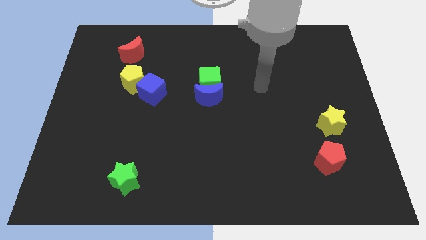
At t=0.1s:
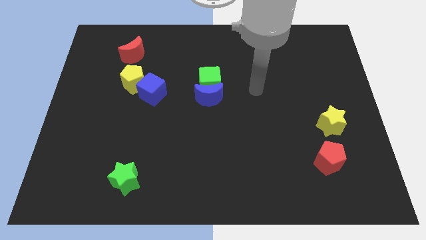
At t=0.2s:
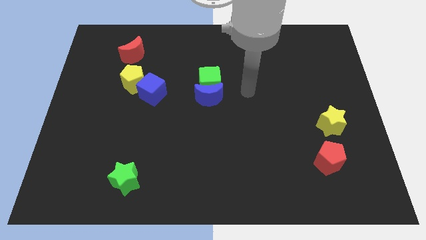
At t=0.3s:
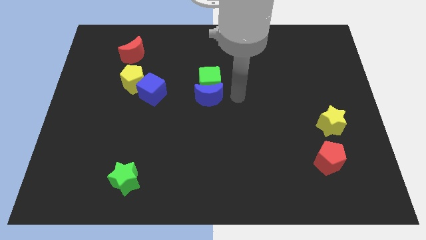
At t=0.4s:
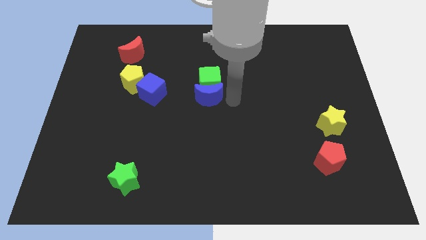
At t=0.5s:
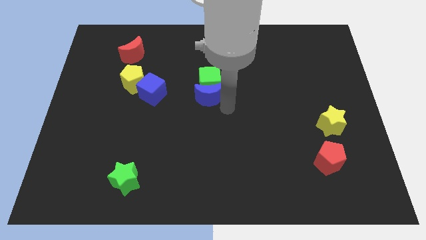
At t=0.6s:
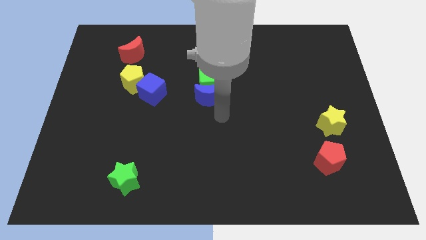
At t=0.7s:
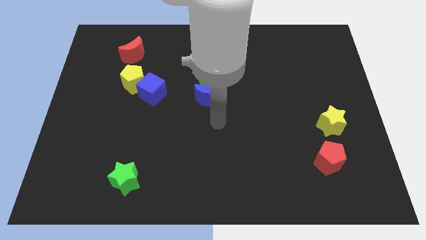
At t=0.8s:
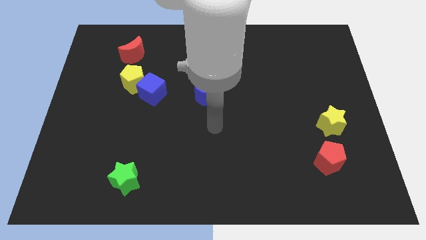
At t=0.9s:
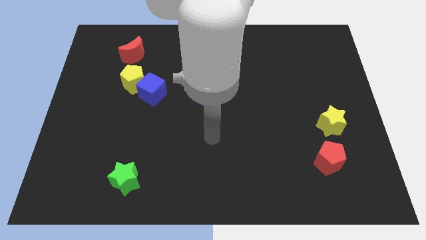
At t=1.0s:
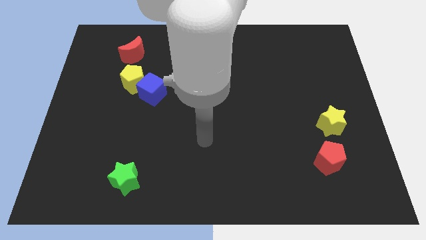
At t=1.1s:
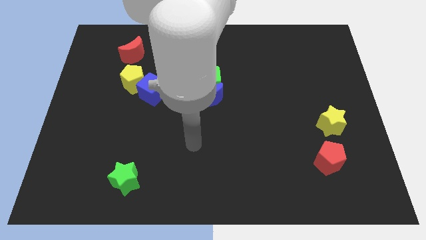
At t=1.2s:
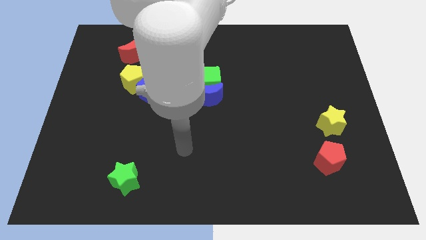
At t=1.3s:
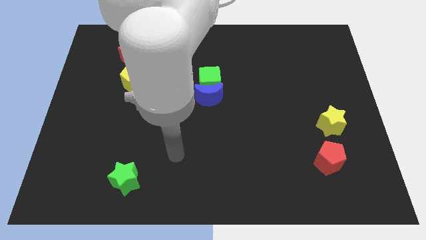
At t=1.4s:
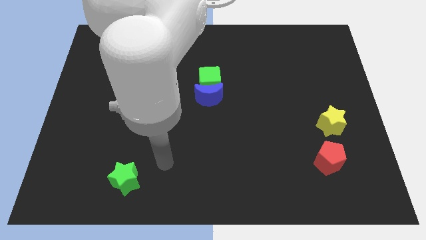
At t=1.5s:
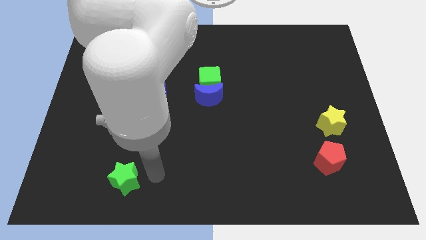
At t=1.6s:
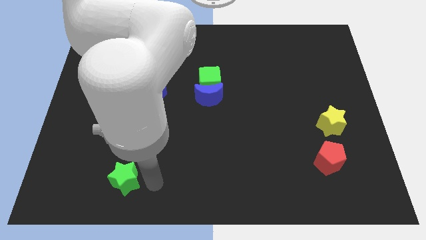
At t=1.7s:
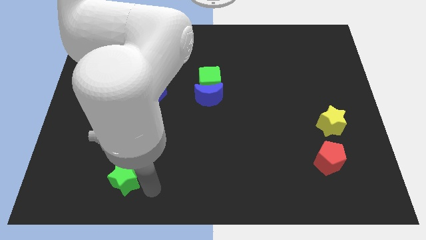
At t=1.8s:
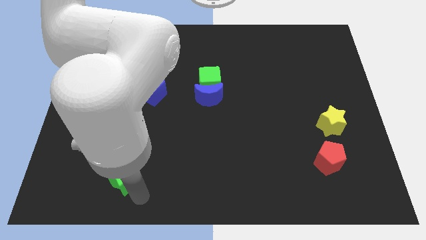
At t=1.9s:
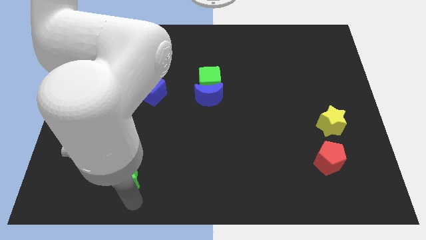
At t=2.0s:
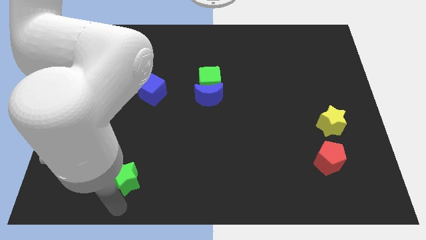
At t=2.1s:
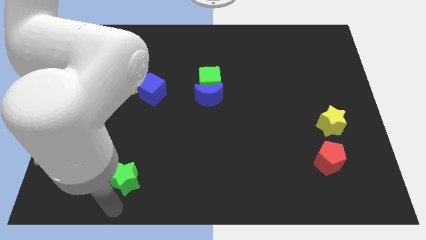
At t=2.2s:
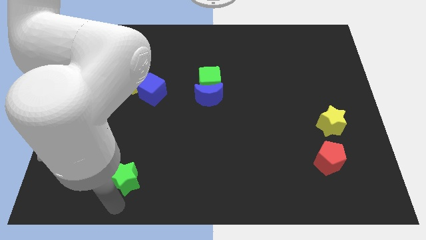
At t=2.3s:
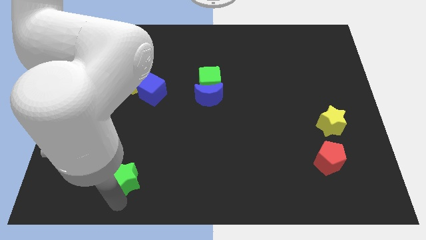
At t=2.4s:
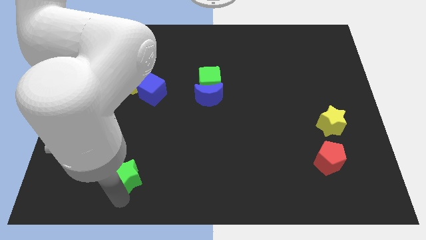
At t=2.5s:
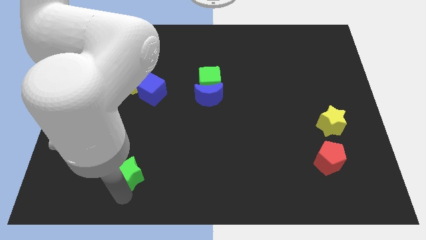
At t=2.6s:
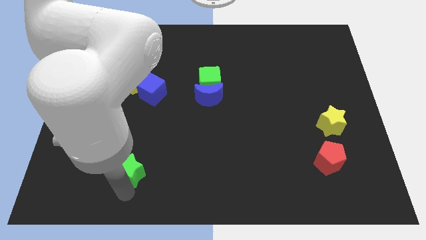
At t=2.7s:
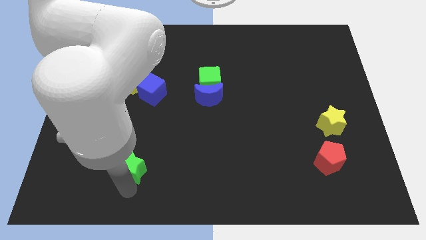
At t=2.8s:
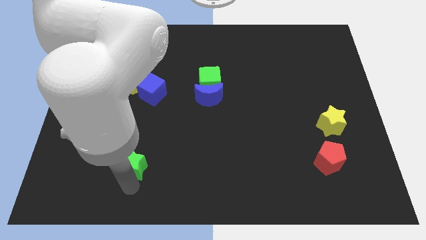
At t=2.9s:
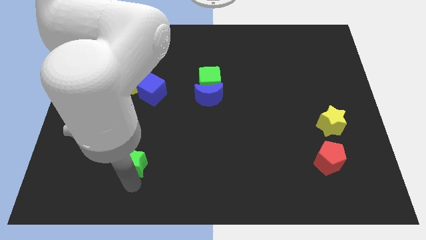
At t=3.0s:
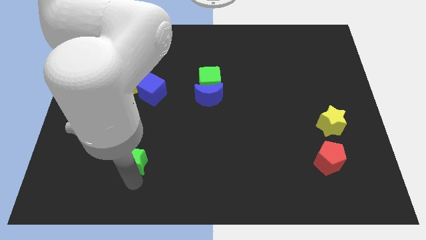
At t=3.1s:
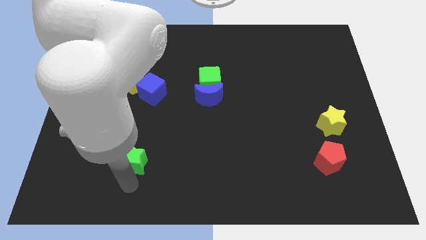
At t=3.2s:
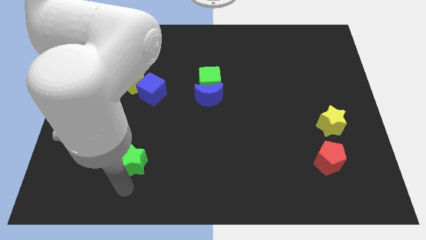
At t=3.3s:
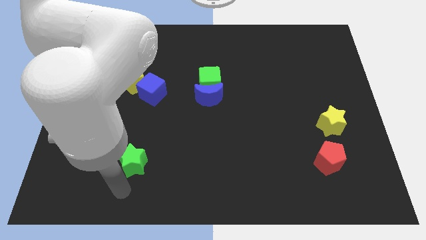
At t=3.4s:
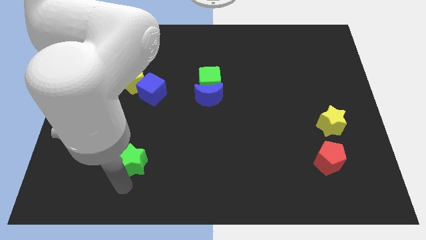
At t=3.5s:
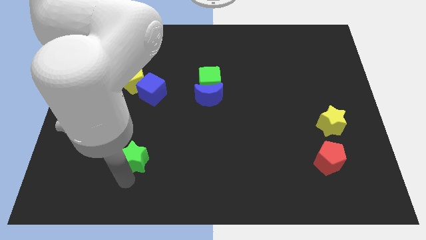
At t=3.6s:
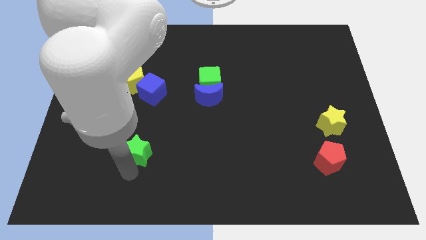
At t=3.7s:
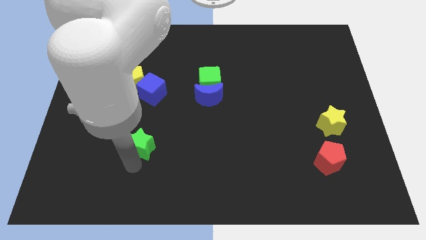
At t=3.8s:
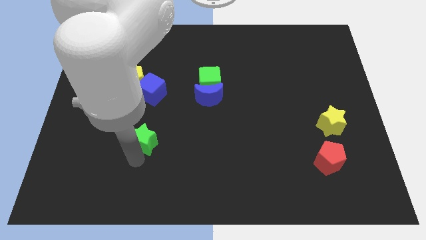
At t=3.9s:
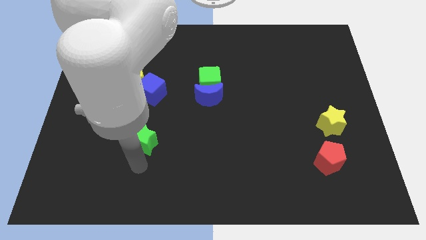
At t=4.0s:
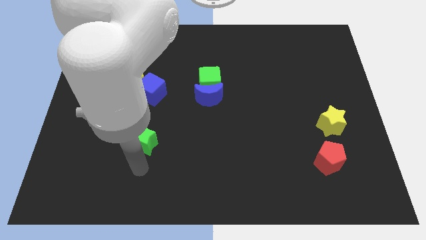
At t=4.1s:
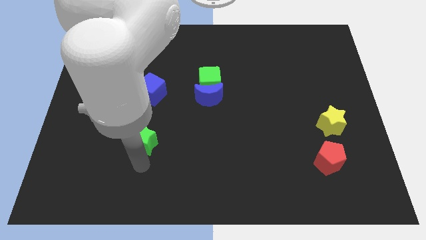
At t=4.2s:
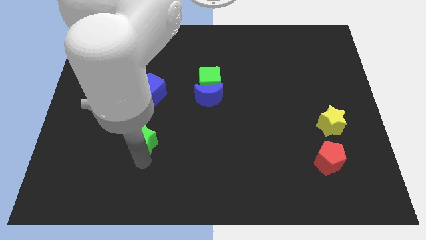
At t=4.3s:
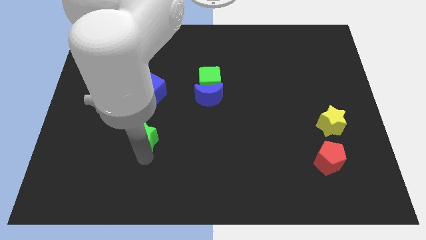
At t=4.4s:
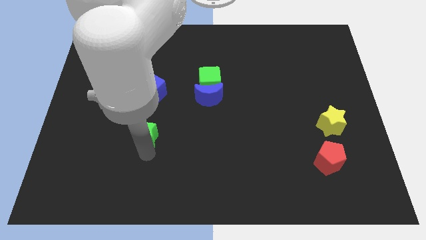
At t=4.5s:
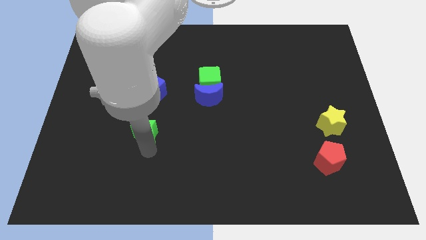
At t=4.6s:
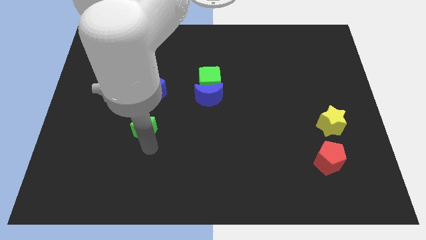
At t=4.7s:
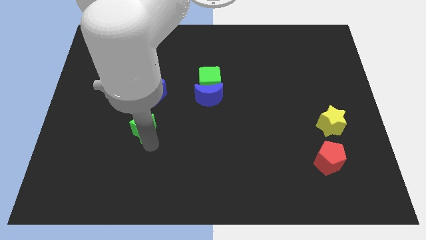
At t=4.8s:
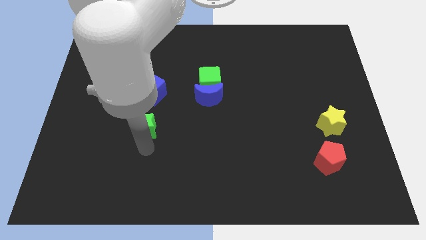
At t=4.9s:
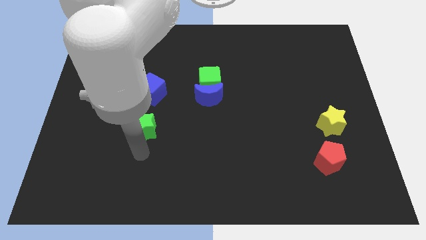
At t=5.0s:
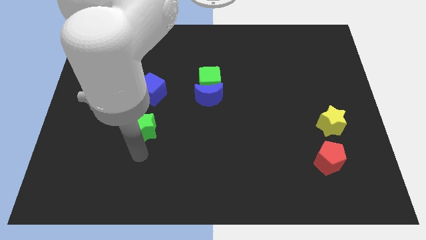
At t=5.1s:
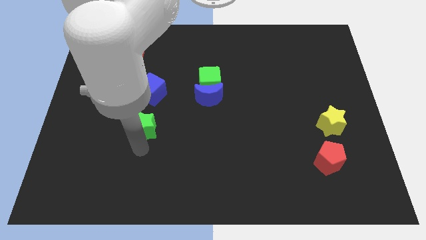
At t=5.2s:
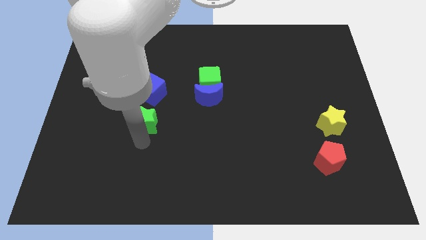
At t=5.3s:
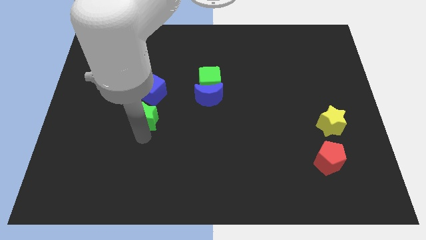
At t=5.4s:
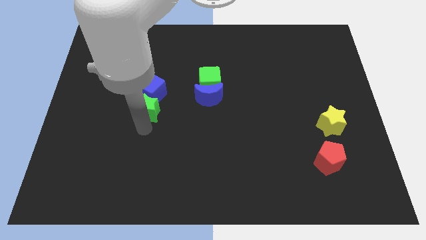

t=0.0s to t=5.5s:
move the green star to the blue cube

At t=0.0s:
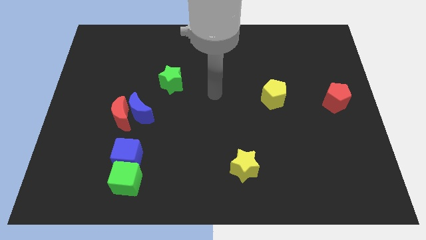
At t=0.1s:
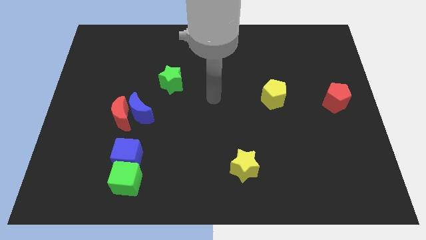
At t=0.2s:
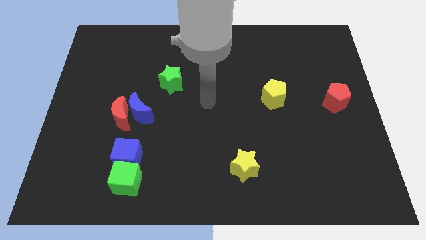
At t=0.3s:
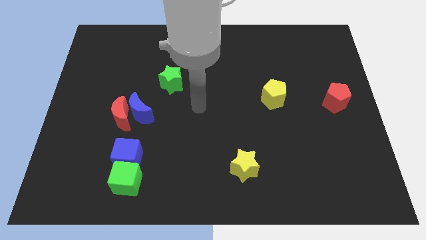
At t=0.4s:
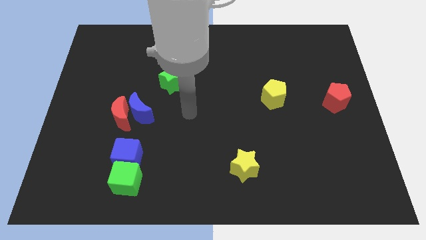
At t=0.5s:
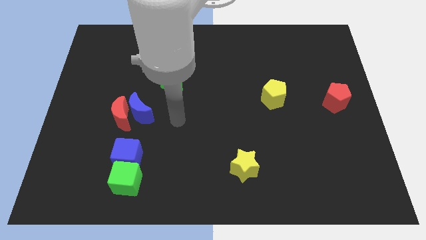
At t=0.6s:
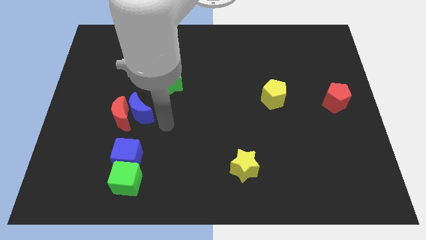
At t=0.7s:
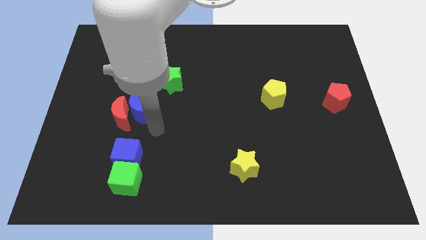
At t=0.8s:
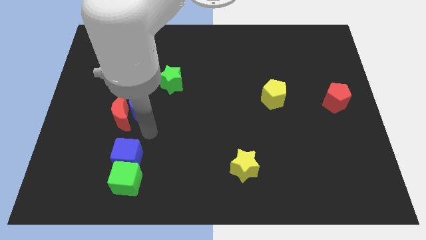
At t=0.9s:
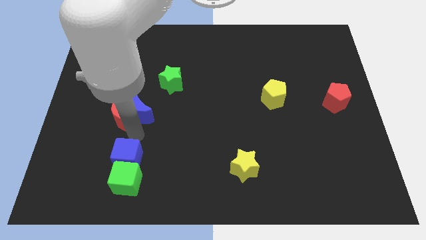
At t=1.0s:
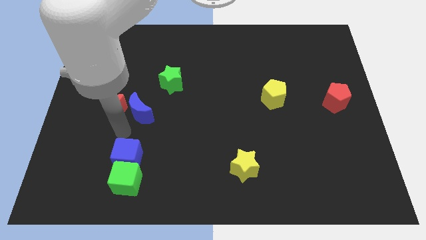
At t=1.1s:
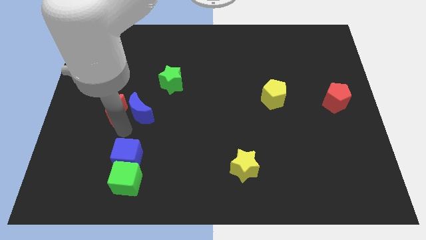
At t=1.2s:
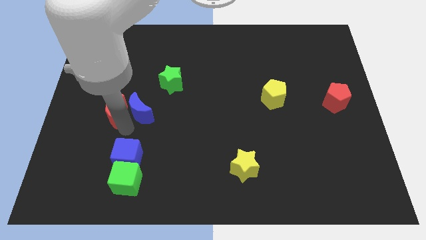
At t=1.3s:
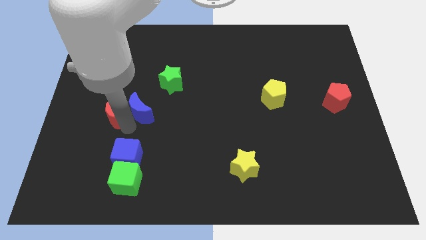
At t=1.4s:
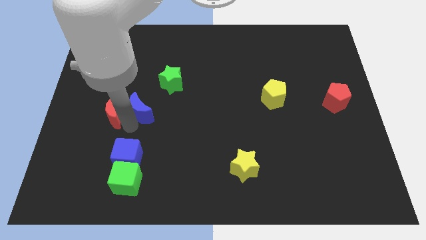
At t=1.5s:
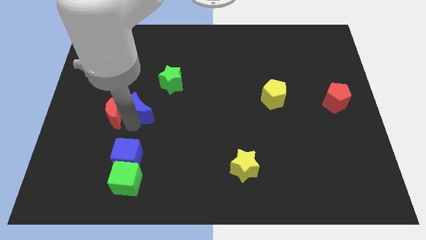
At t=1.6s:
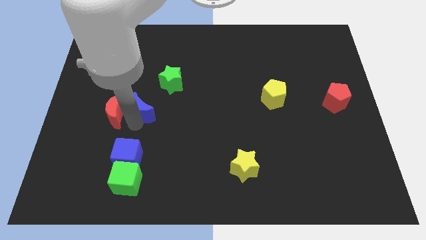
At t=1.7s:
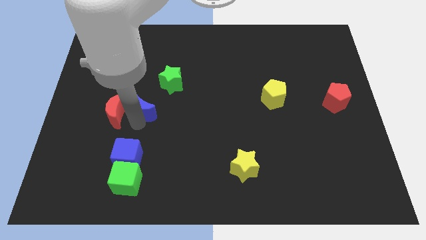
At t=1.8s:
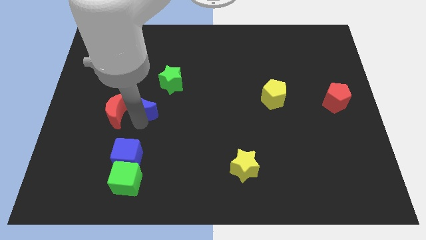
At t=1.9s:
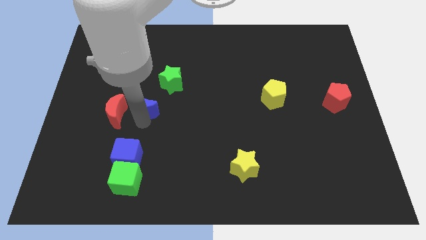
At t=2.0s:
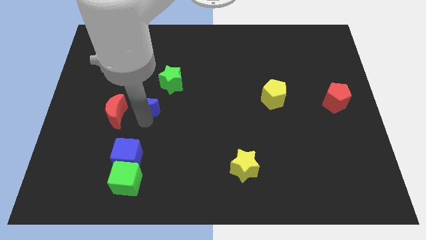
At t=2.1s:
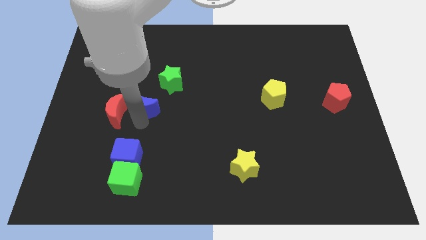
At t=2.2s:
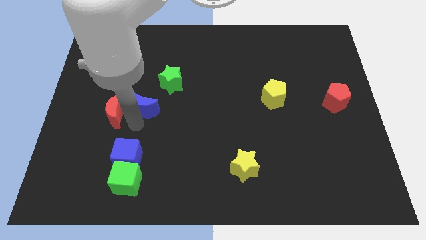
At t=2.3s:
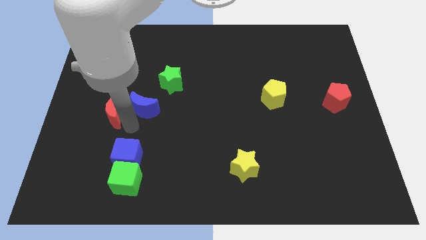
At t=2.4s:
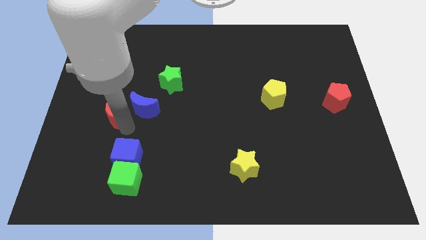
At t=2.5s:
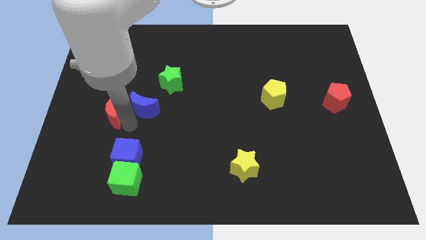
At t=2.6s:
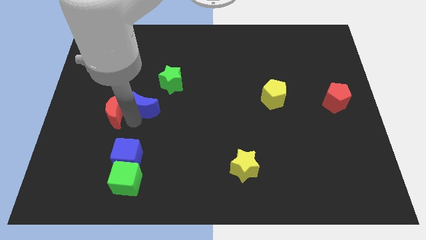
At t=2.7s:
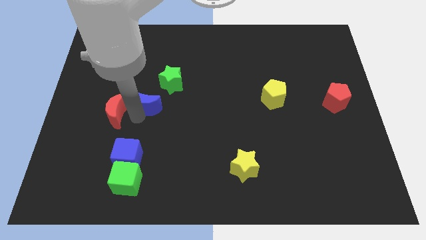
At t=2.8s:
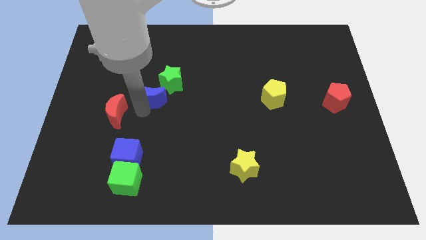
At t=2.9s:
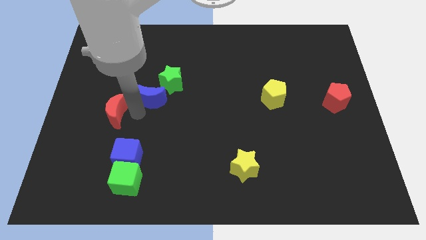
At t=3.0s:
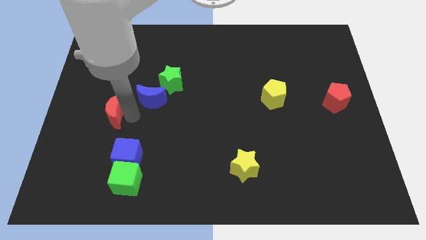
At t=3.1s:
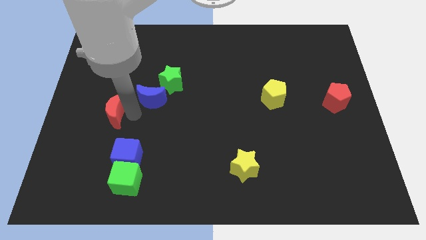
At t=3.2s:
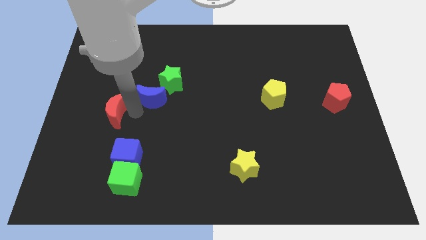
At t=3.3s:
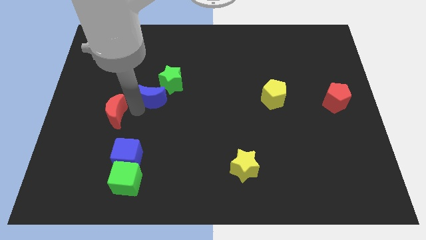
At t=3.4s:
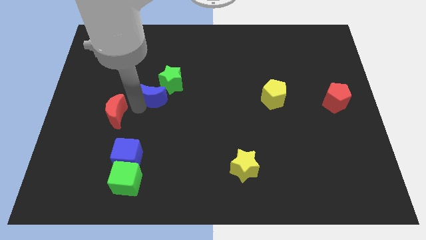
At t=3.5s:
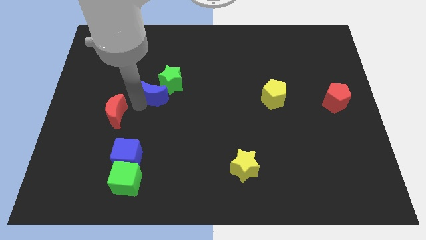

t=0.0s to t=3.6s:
put the blue moon next to the green star
